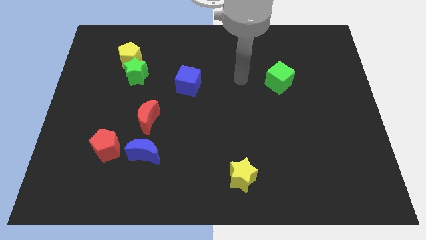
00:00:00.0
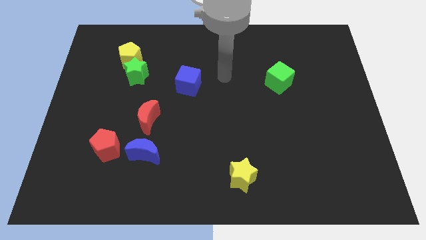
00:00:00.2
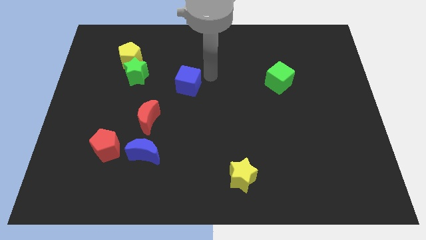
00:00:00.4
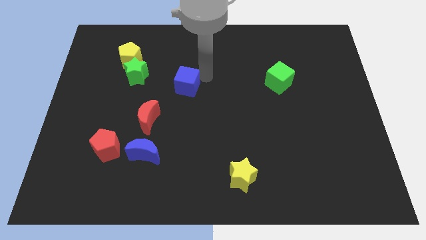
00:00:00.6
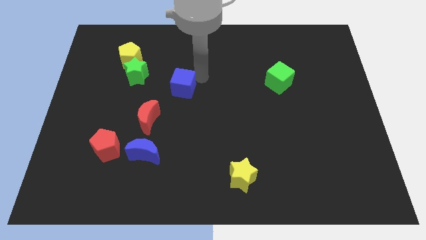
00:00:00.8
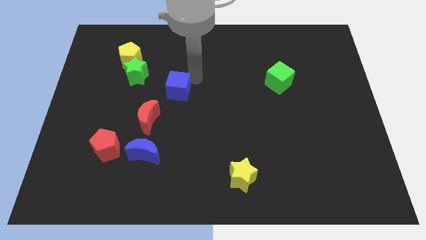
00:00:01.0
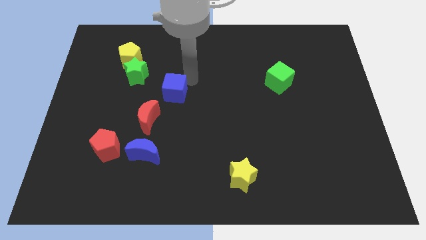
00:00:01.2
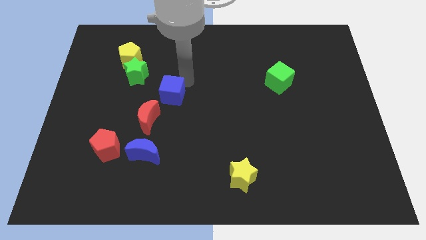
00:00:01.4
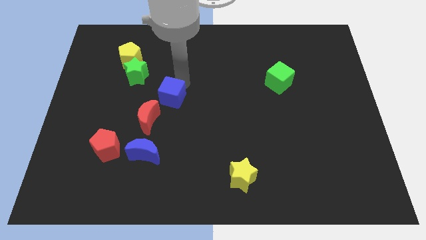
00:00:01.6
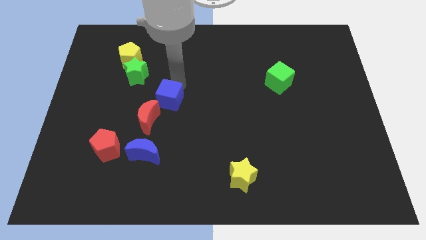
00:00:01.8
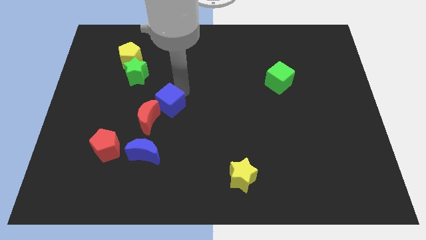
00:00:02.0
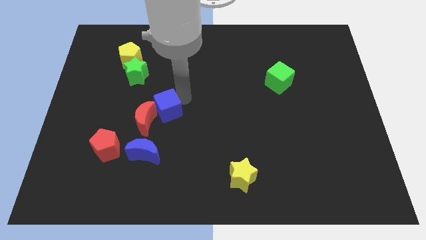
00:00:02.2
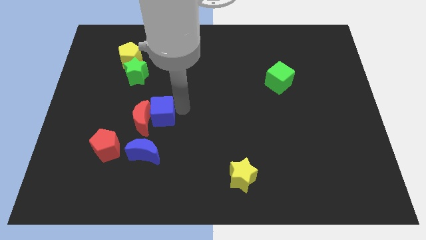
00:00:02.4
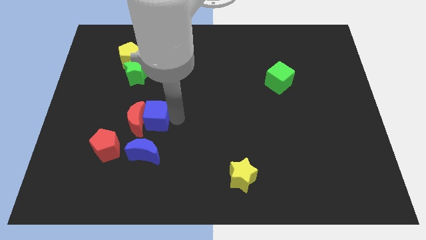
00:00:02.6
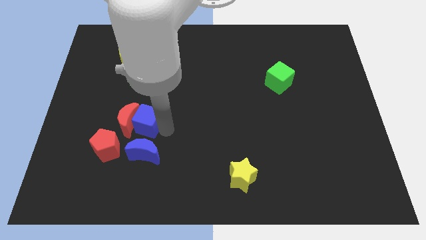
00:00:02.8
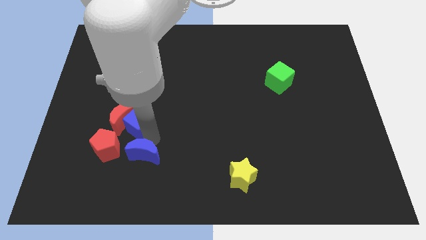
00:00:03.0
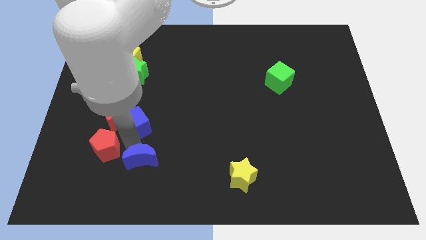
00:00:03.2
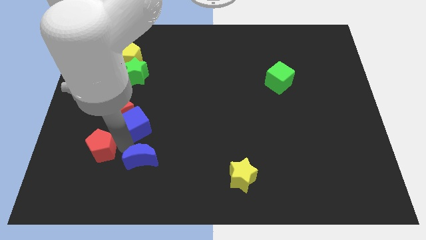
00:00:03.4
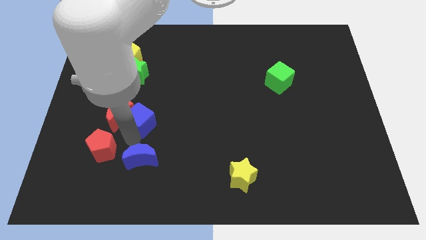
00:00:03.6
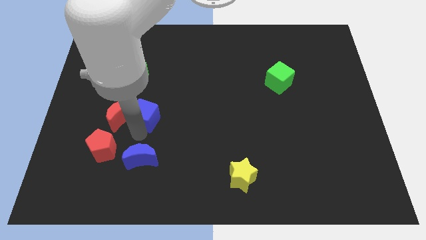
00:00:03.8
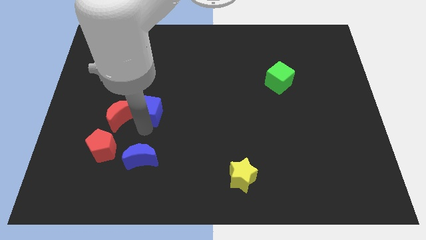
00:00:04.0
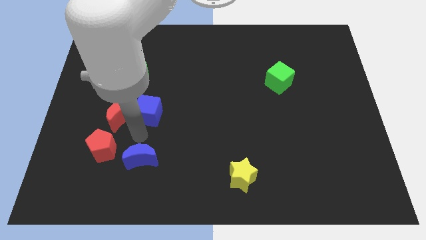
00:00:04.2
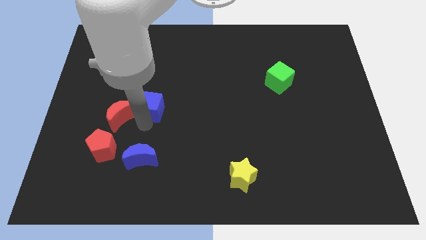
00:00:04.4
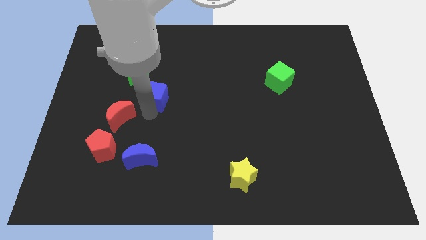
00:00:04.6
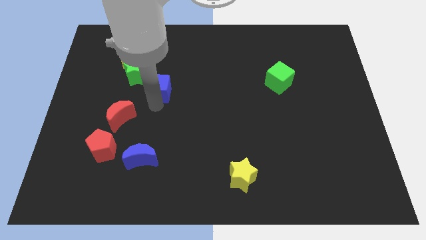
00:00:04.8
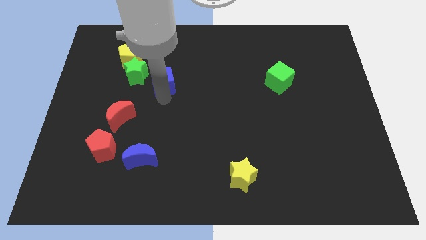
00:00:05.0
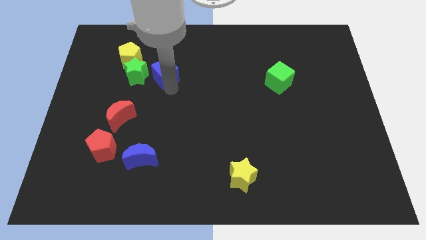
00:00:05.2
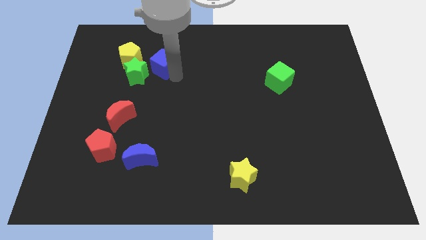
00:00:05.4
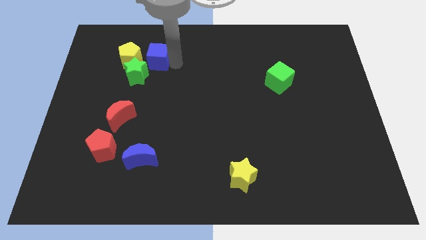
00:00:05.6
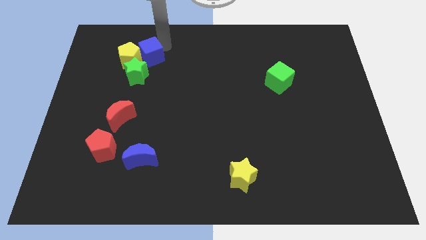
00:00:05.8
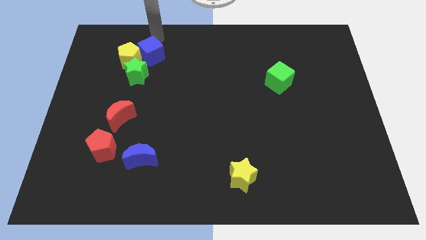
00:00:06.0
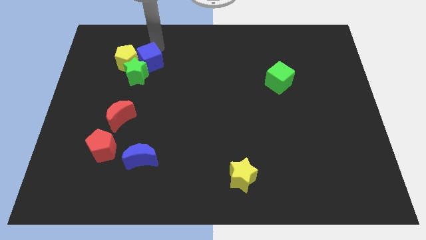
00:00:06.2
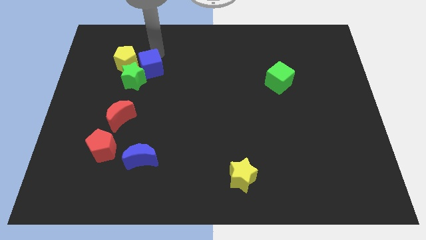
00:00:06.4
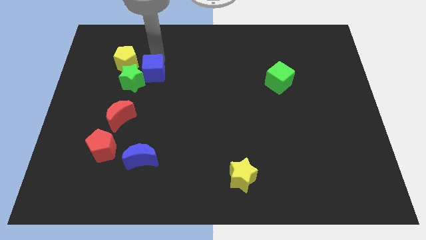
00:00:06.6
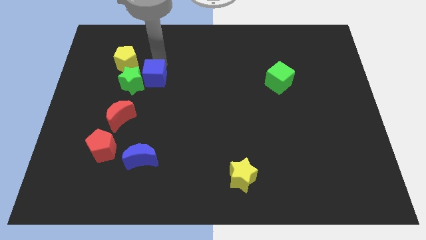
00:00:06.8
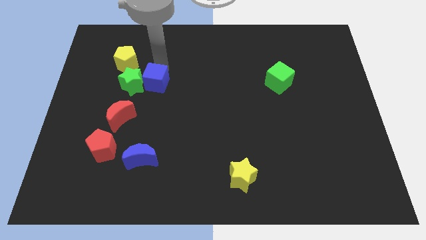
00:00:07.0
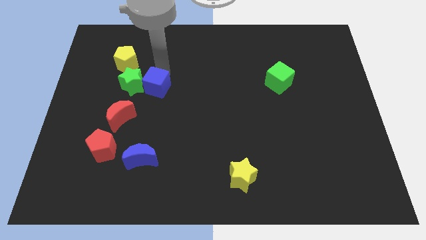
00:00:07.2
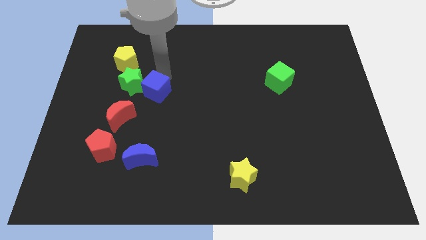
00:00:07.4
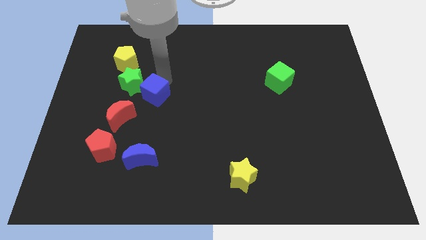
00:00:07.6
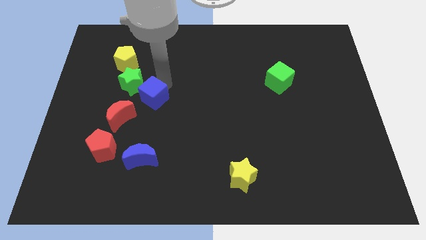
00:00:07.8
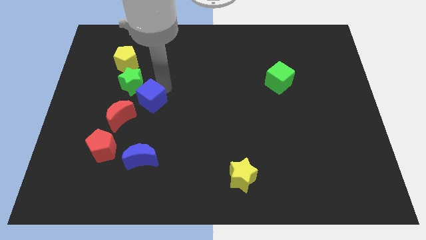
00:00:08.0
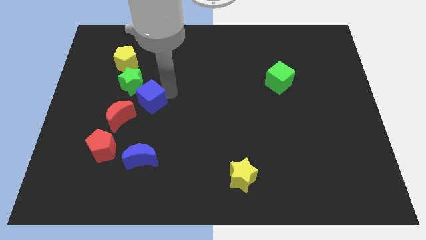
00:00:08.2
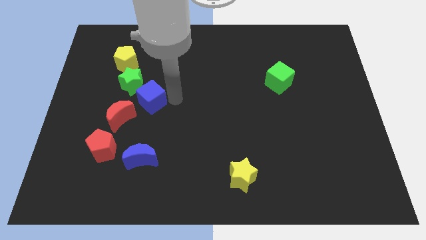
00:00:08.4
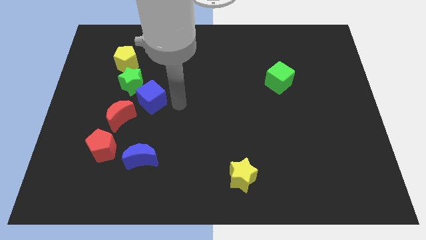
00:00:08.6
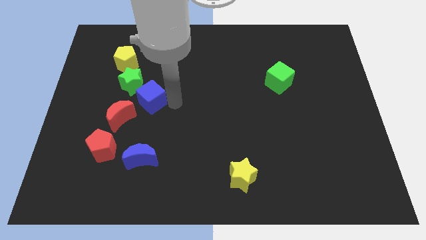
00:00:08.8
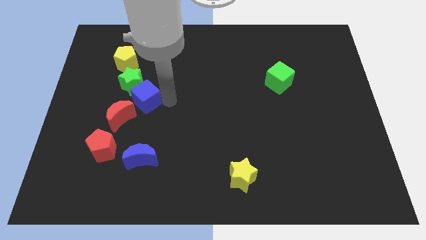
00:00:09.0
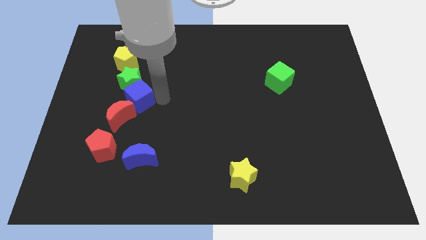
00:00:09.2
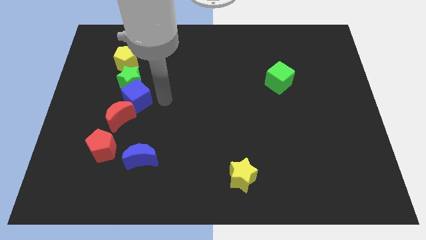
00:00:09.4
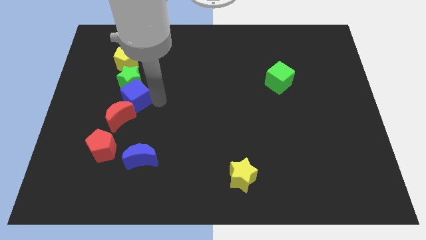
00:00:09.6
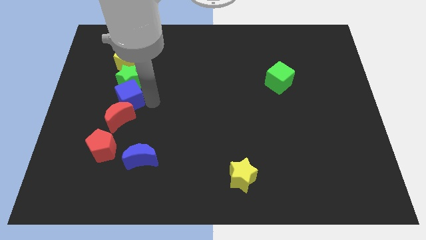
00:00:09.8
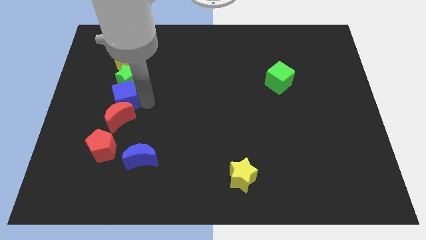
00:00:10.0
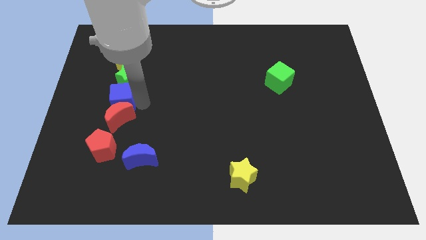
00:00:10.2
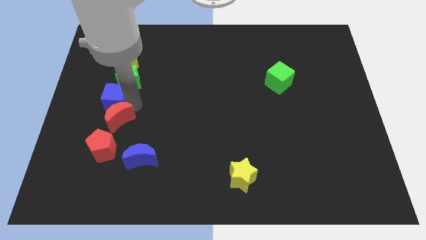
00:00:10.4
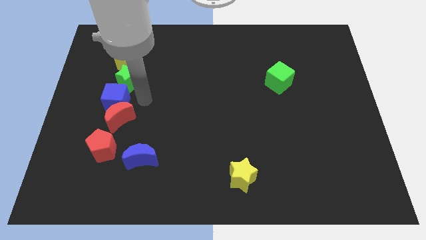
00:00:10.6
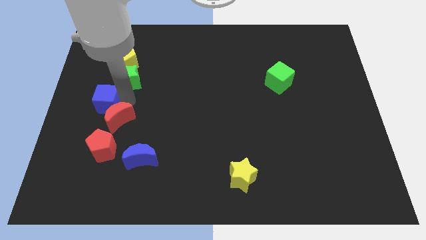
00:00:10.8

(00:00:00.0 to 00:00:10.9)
push the blue cube to the left side
